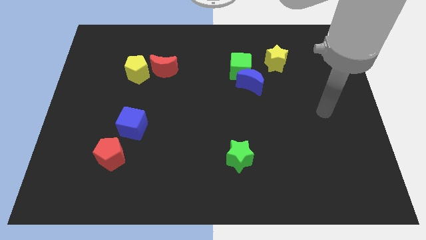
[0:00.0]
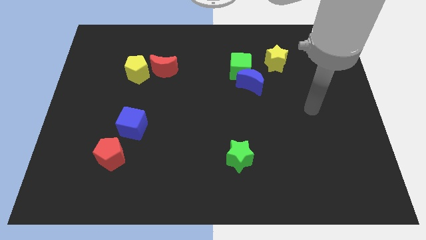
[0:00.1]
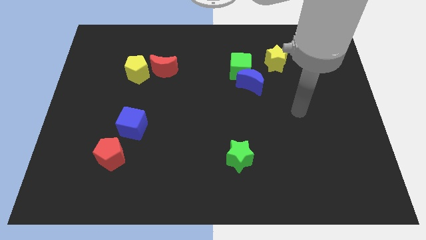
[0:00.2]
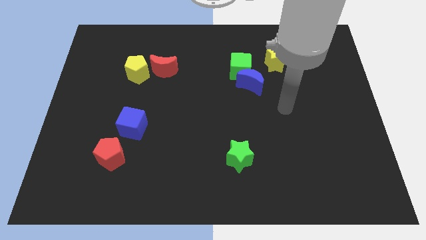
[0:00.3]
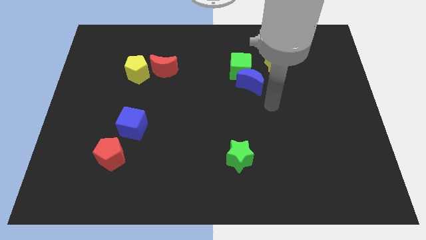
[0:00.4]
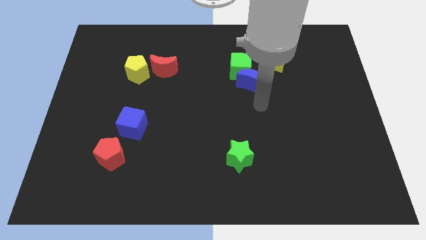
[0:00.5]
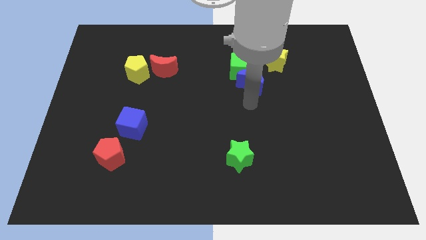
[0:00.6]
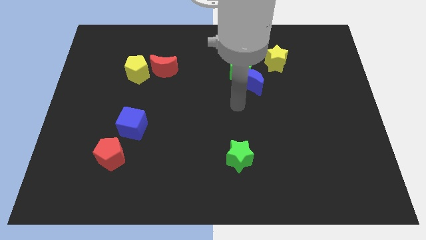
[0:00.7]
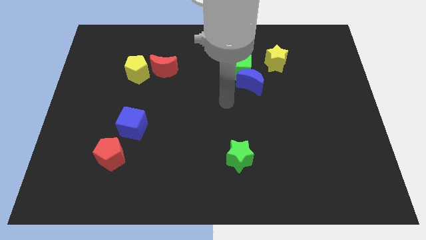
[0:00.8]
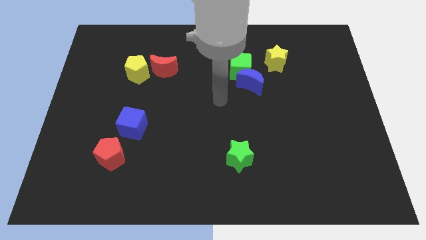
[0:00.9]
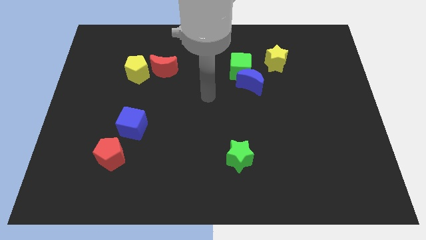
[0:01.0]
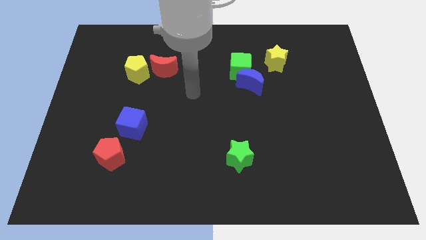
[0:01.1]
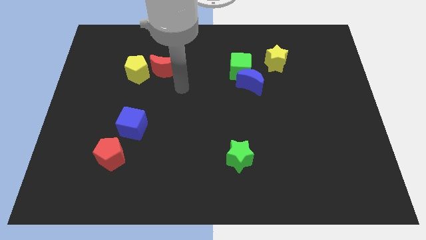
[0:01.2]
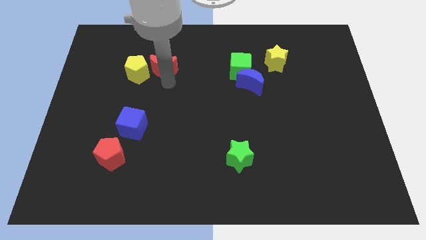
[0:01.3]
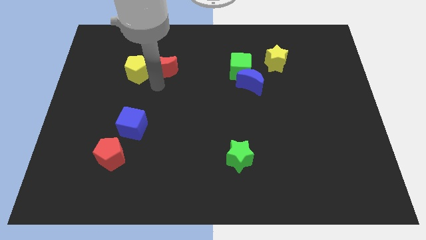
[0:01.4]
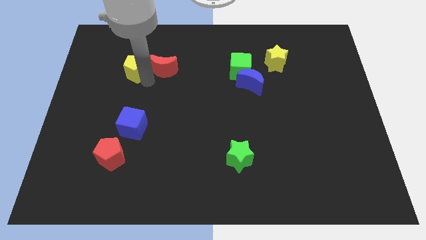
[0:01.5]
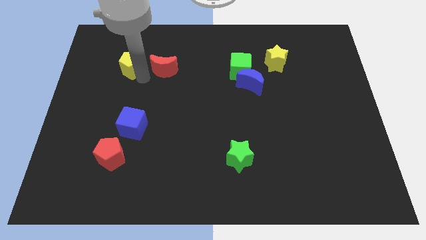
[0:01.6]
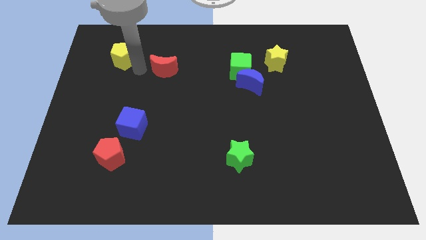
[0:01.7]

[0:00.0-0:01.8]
pull the red moon apart from the yellow pentagon

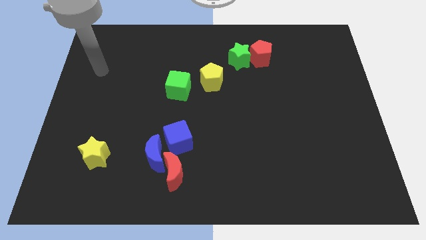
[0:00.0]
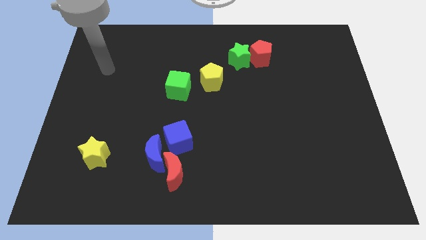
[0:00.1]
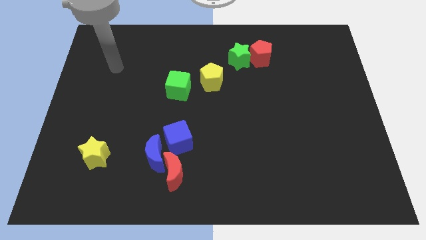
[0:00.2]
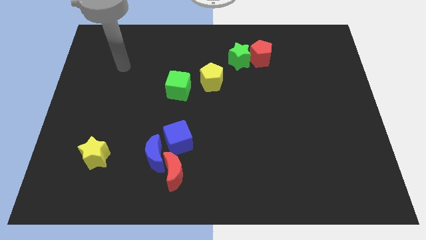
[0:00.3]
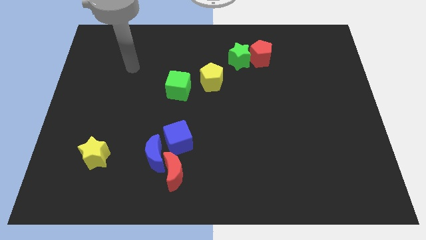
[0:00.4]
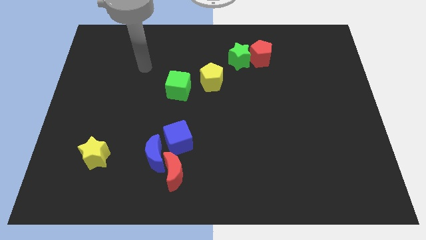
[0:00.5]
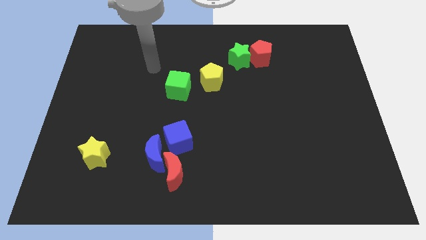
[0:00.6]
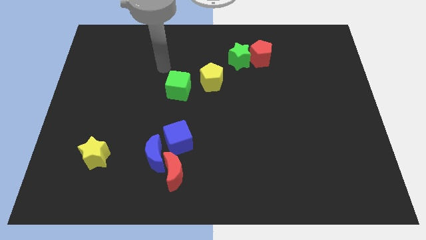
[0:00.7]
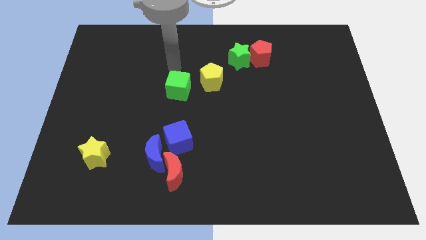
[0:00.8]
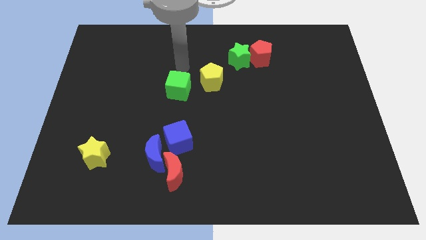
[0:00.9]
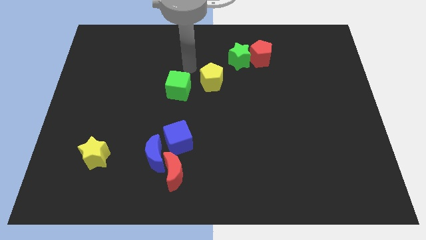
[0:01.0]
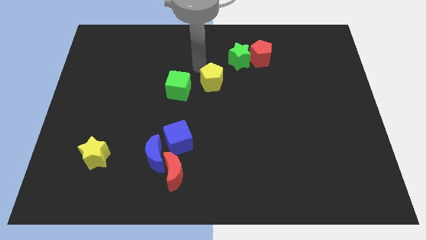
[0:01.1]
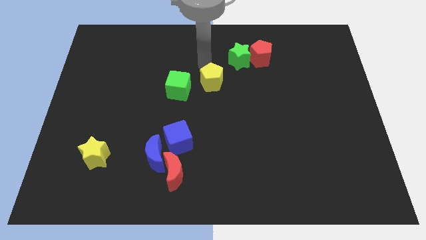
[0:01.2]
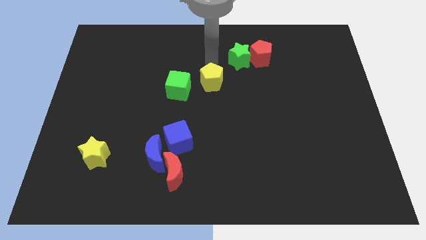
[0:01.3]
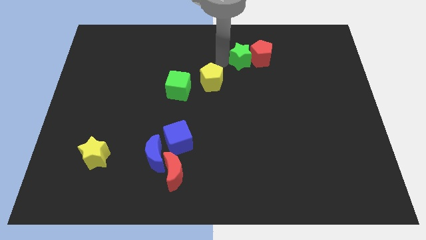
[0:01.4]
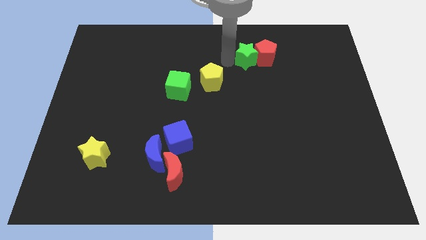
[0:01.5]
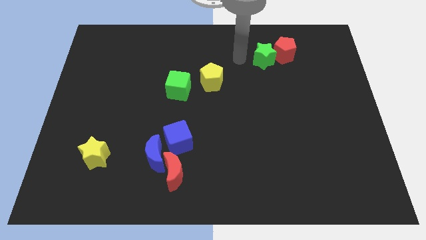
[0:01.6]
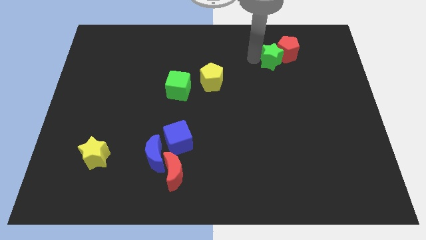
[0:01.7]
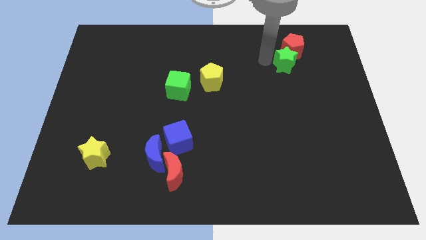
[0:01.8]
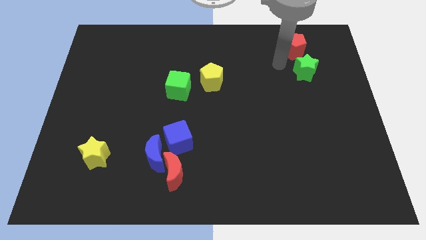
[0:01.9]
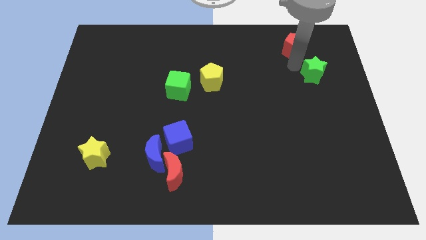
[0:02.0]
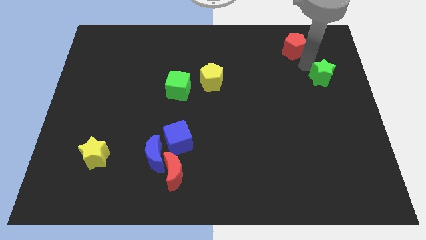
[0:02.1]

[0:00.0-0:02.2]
pull the red pentagon apart from the green star

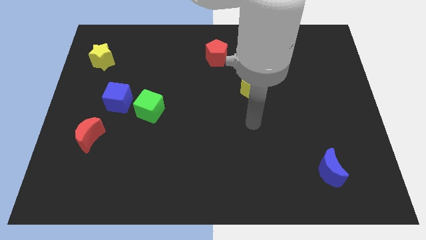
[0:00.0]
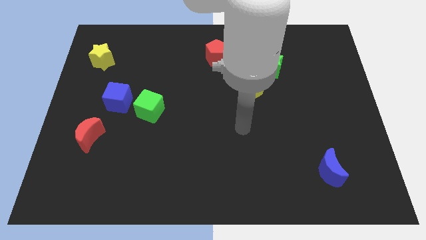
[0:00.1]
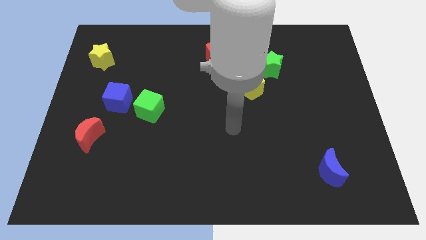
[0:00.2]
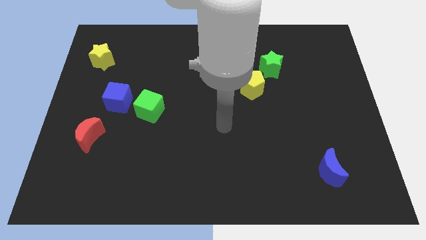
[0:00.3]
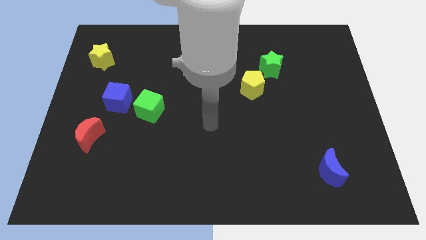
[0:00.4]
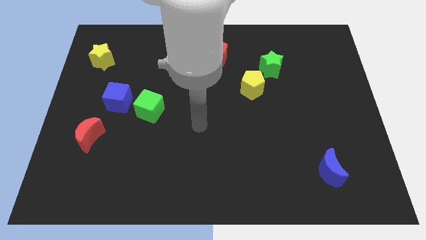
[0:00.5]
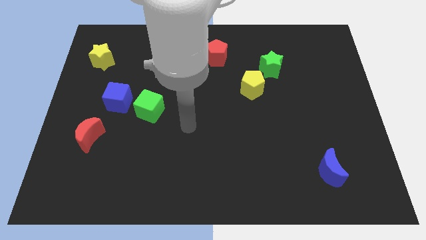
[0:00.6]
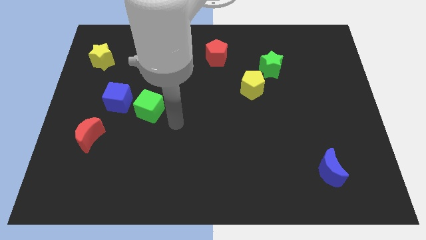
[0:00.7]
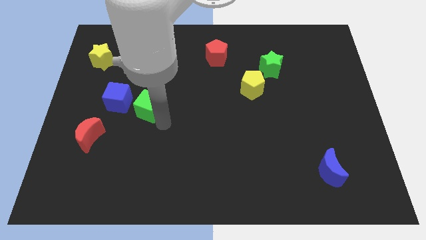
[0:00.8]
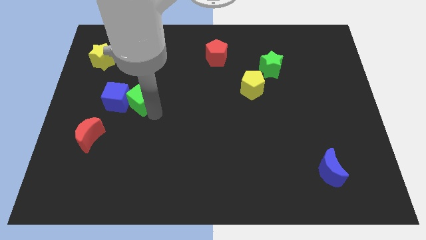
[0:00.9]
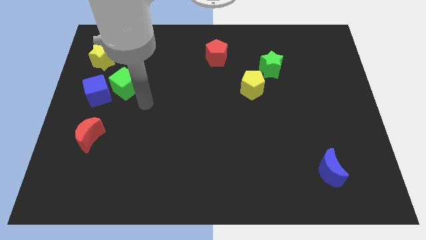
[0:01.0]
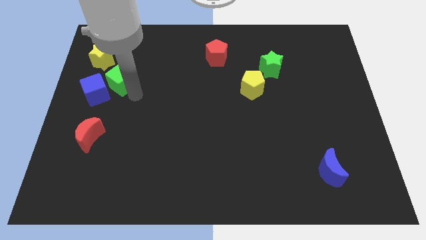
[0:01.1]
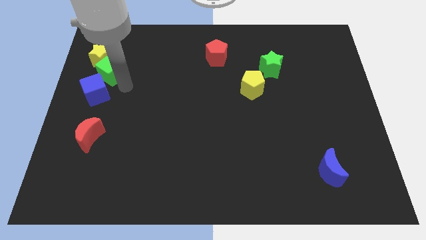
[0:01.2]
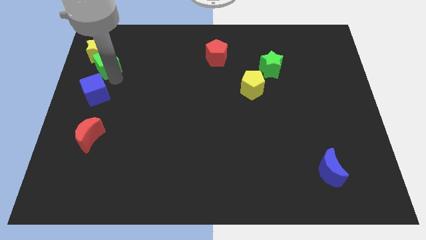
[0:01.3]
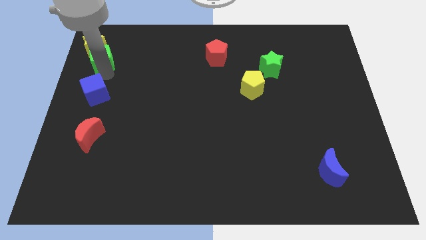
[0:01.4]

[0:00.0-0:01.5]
pull the blue cube apart from the green cube

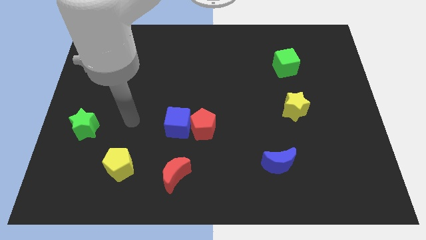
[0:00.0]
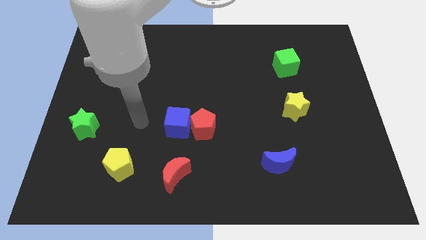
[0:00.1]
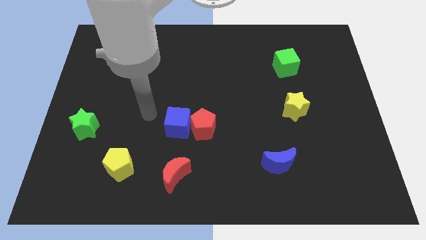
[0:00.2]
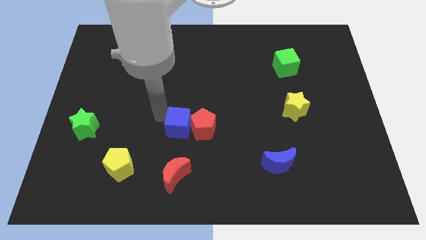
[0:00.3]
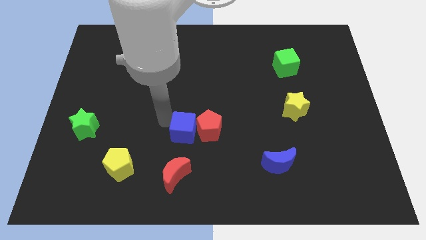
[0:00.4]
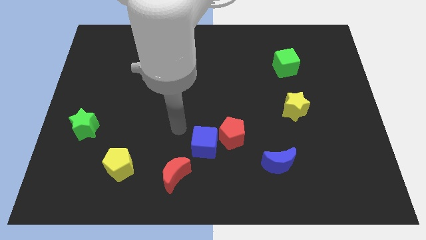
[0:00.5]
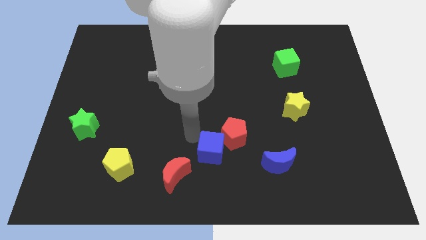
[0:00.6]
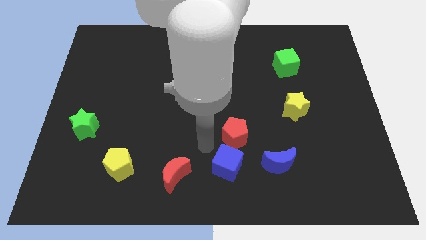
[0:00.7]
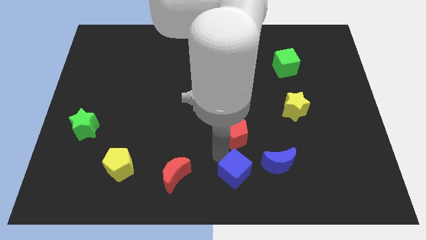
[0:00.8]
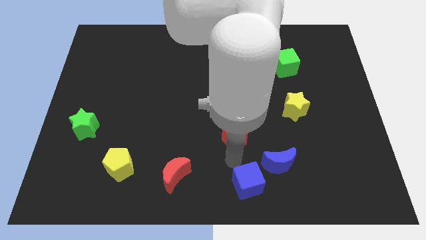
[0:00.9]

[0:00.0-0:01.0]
pull the red pentagon apart from the blue cube

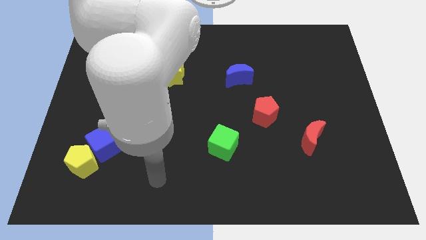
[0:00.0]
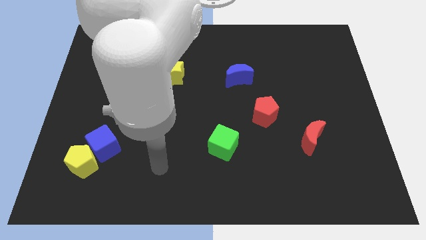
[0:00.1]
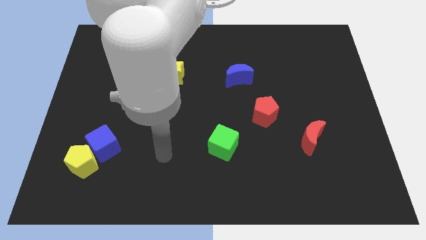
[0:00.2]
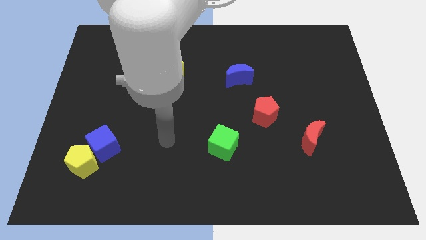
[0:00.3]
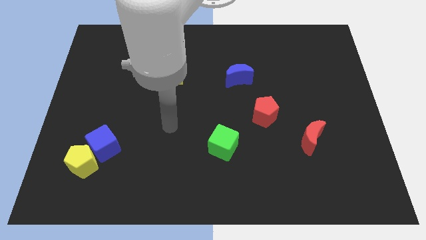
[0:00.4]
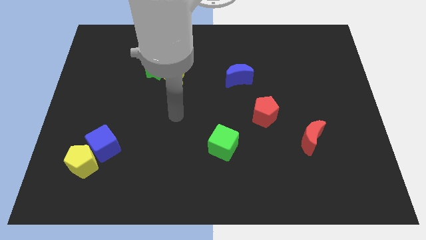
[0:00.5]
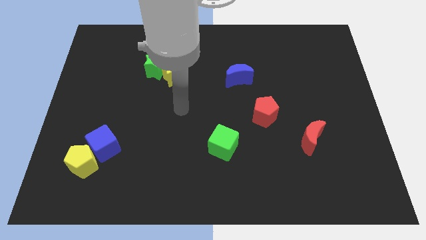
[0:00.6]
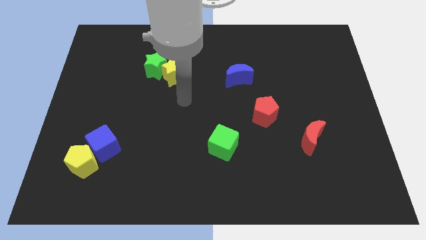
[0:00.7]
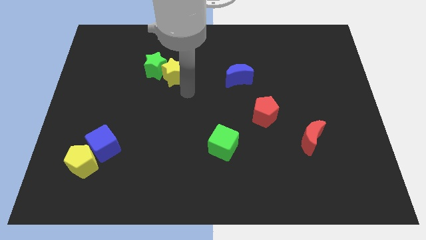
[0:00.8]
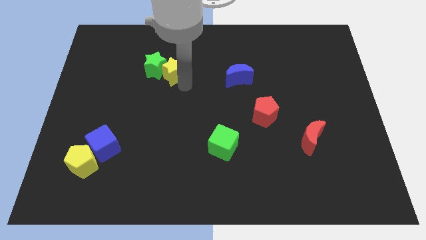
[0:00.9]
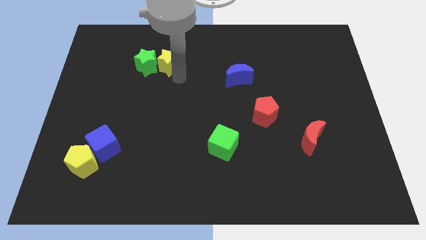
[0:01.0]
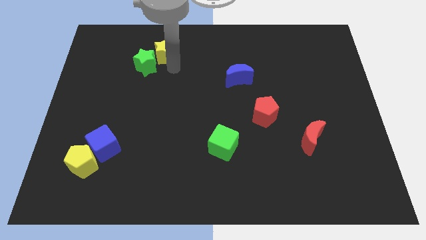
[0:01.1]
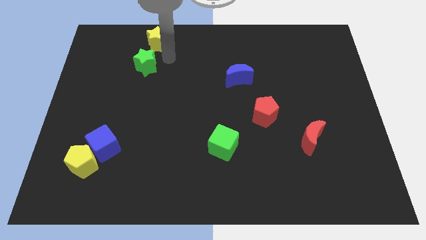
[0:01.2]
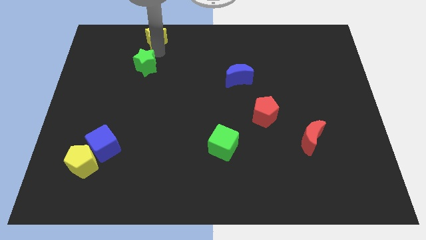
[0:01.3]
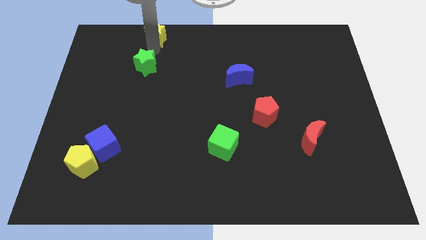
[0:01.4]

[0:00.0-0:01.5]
move the green star away from the yellow star

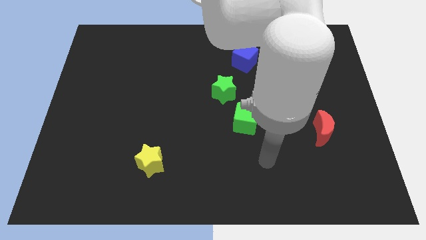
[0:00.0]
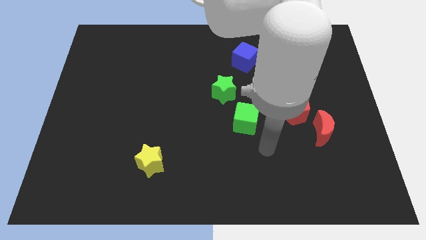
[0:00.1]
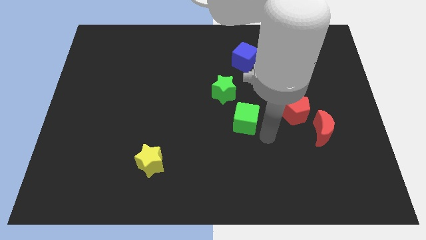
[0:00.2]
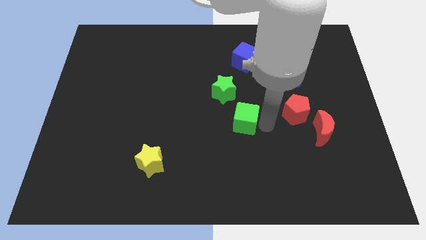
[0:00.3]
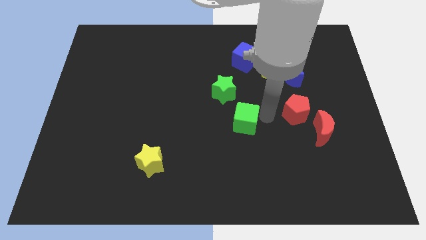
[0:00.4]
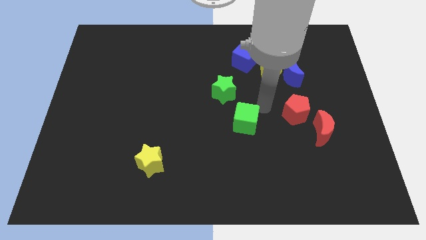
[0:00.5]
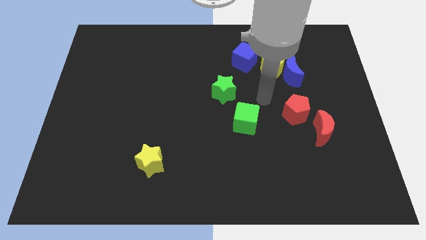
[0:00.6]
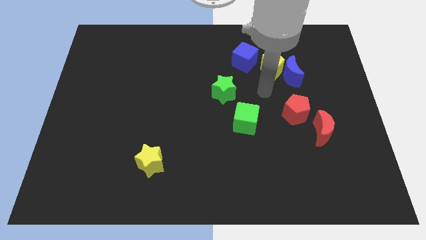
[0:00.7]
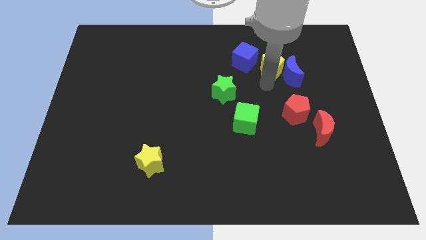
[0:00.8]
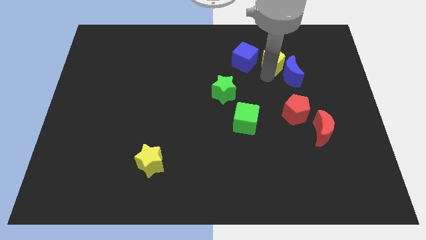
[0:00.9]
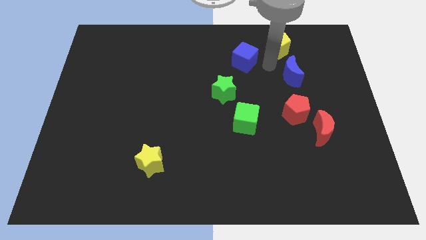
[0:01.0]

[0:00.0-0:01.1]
move the blue moon away from the yellow pentagon

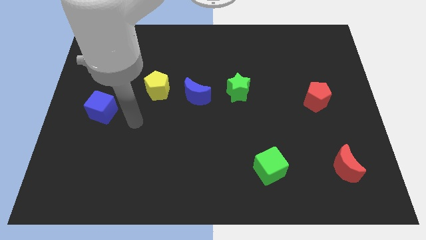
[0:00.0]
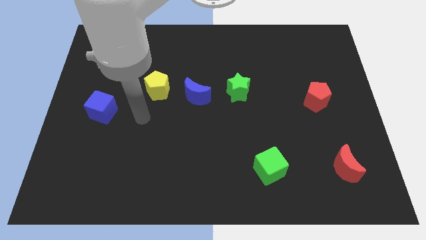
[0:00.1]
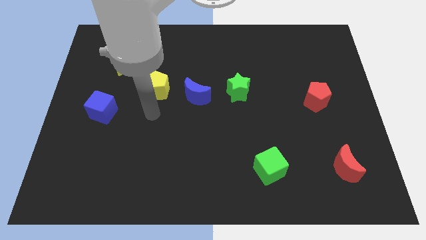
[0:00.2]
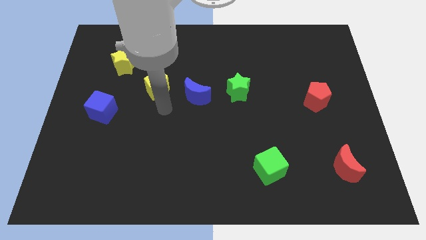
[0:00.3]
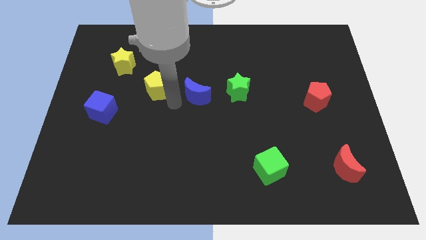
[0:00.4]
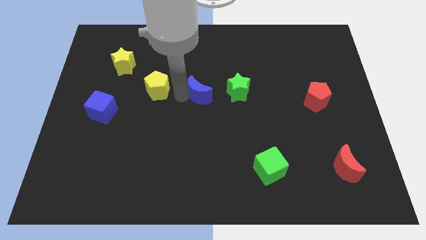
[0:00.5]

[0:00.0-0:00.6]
pull the yellow pentagon apart from the blue moon
